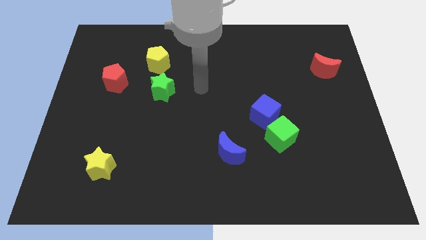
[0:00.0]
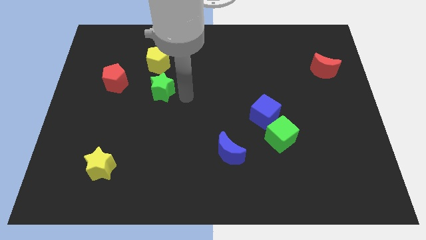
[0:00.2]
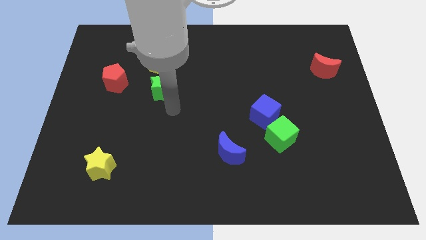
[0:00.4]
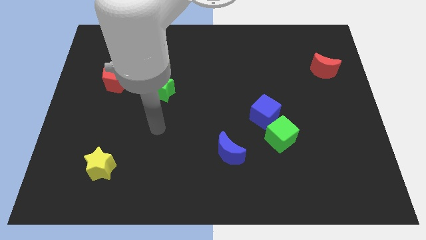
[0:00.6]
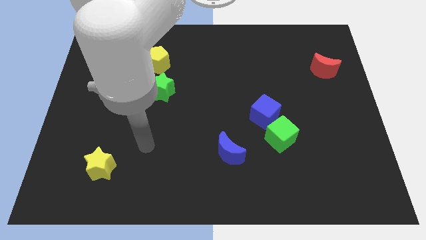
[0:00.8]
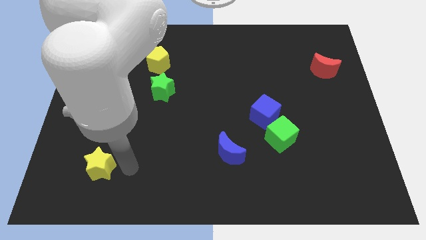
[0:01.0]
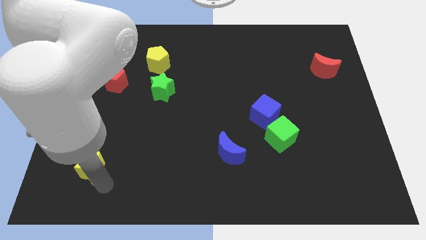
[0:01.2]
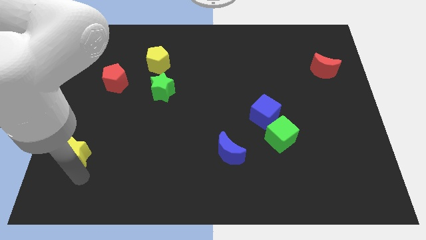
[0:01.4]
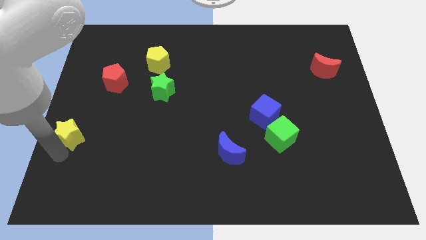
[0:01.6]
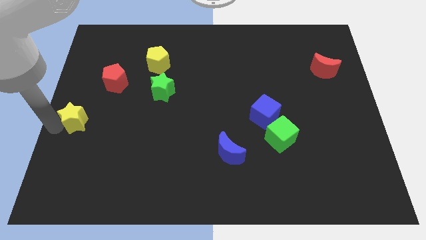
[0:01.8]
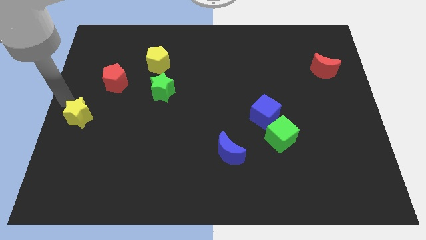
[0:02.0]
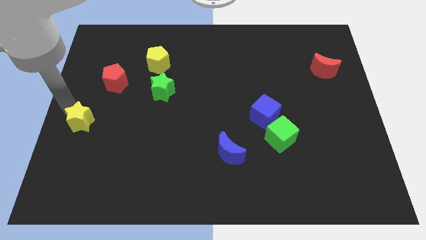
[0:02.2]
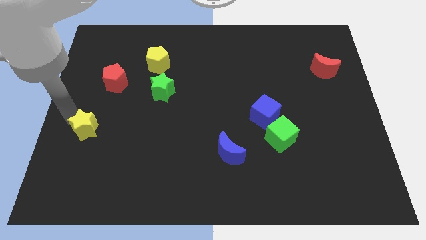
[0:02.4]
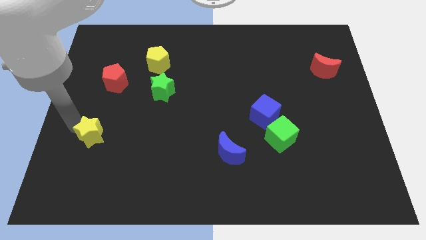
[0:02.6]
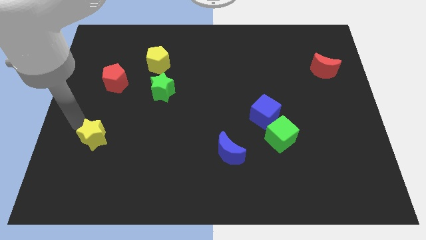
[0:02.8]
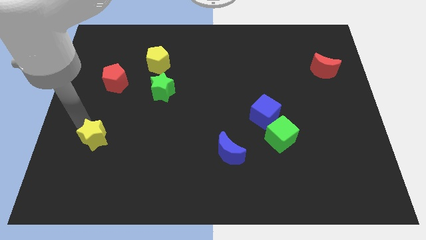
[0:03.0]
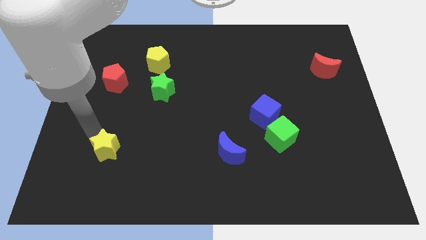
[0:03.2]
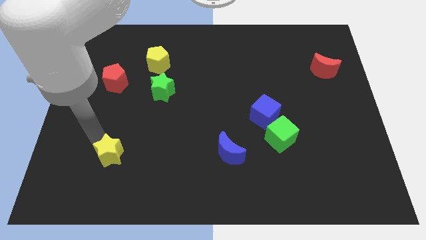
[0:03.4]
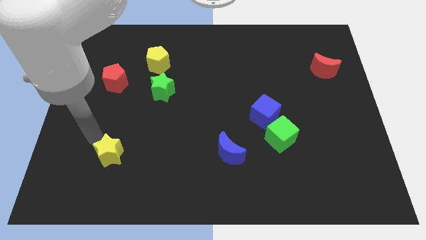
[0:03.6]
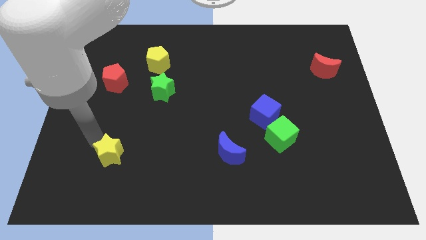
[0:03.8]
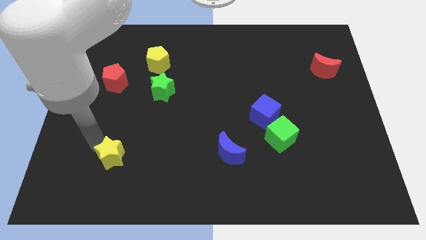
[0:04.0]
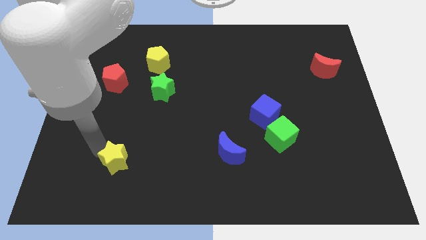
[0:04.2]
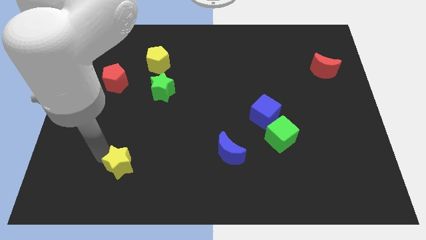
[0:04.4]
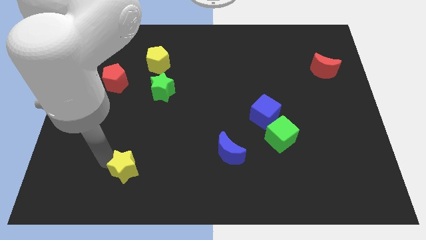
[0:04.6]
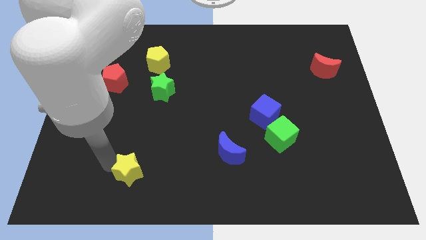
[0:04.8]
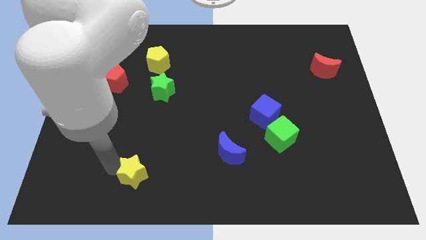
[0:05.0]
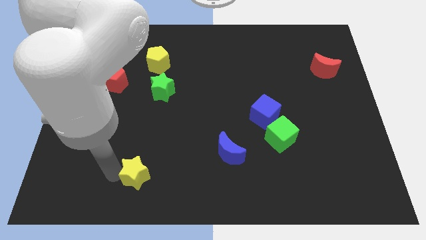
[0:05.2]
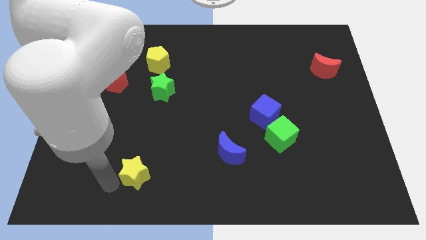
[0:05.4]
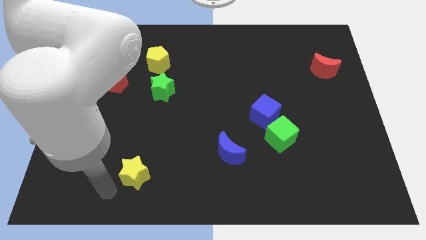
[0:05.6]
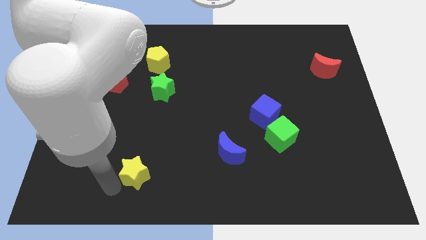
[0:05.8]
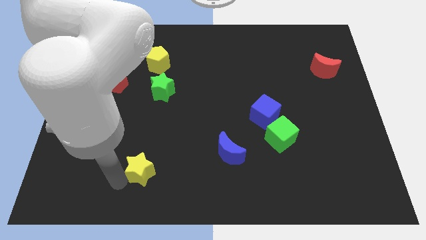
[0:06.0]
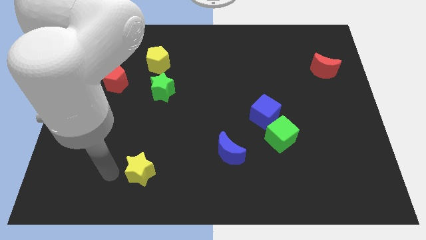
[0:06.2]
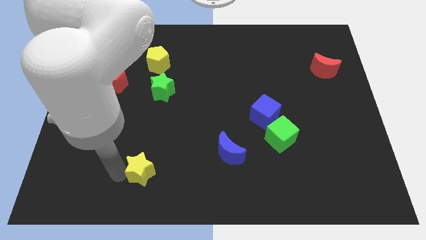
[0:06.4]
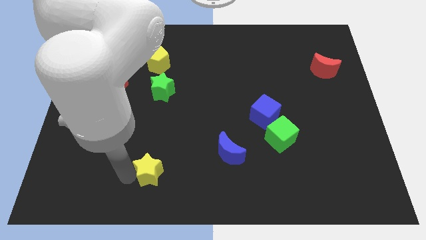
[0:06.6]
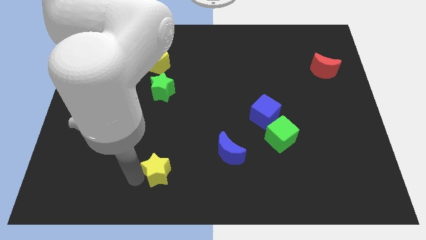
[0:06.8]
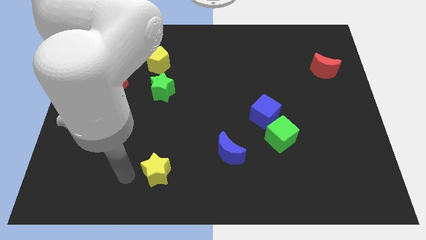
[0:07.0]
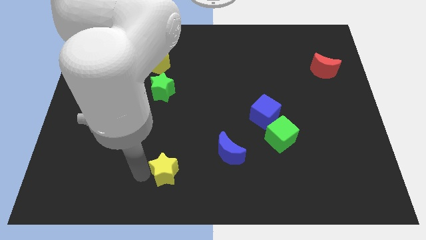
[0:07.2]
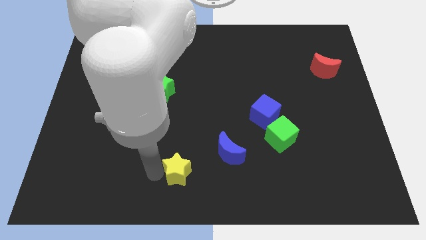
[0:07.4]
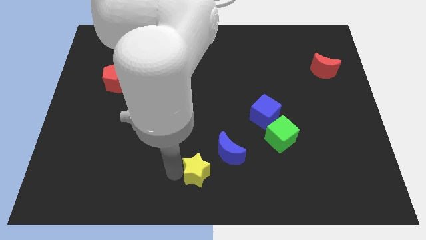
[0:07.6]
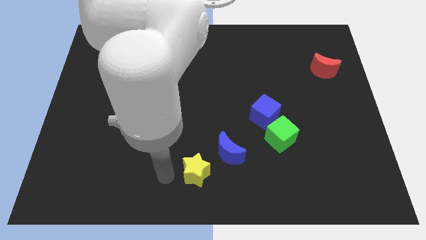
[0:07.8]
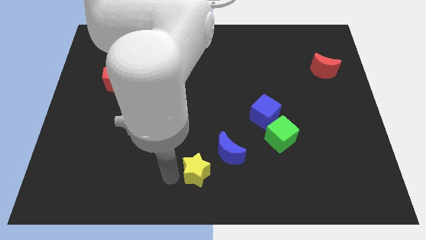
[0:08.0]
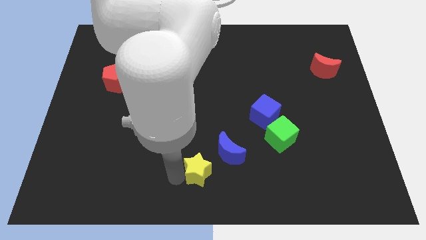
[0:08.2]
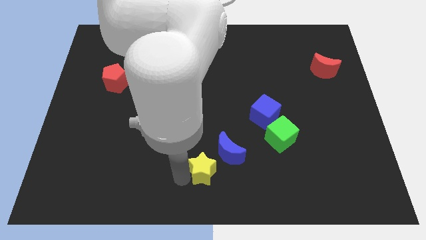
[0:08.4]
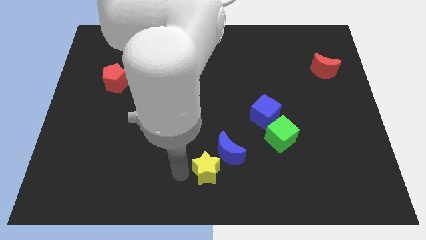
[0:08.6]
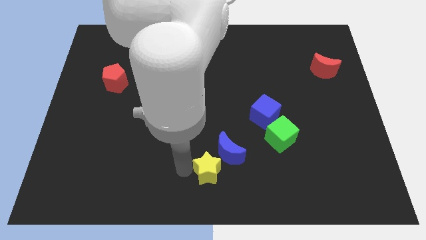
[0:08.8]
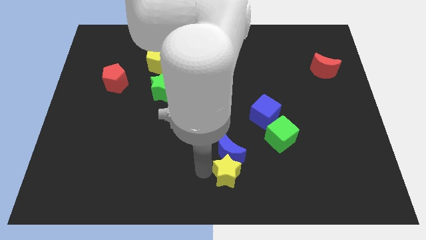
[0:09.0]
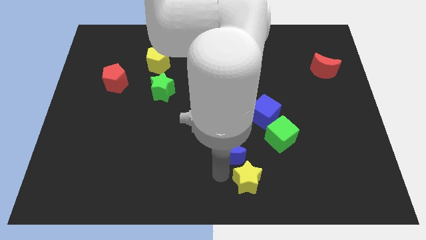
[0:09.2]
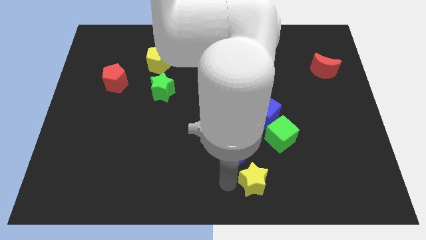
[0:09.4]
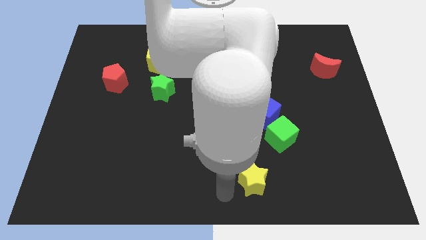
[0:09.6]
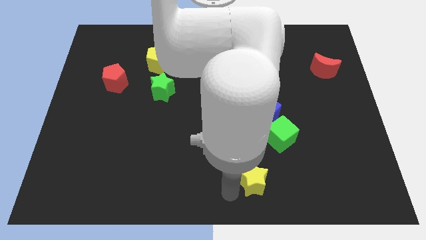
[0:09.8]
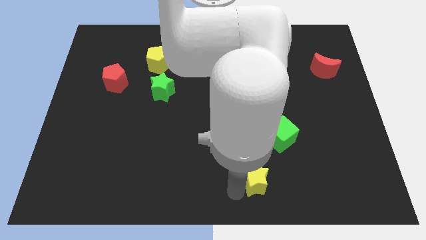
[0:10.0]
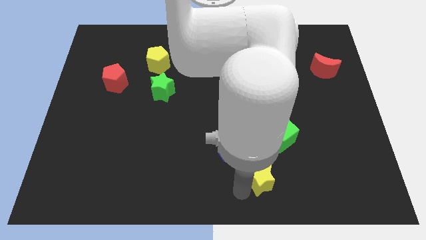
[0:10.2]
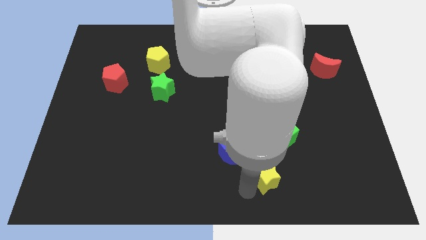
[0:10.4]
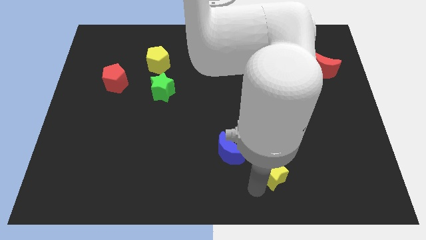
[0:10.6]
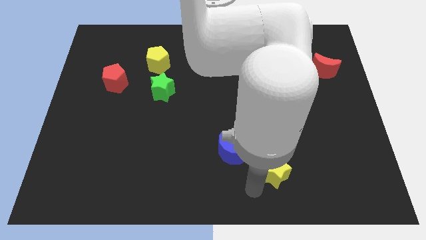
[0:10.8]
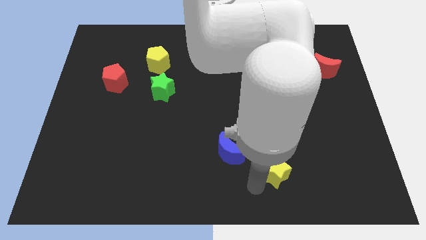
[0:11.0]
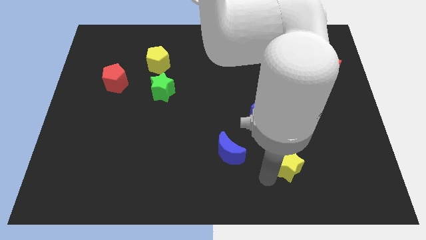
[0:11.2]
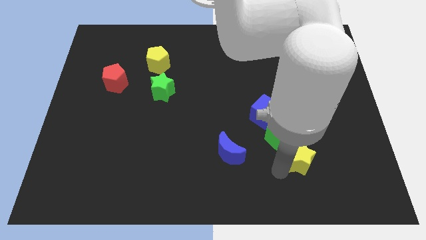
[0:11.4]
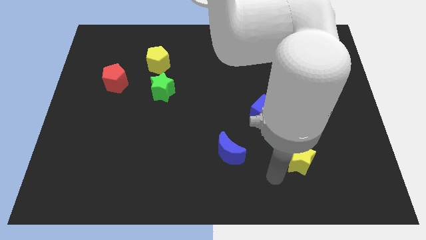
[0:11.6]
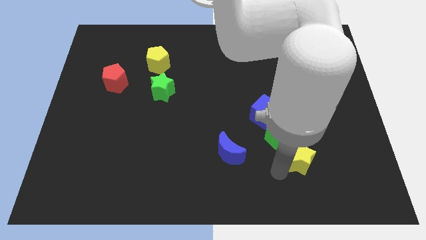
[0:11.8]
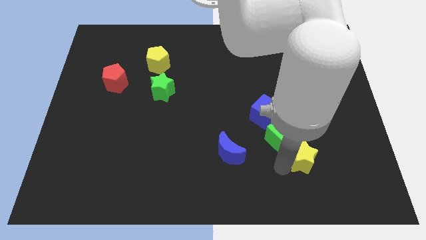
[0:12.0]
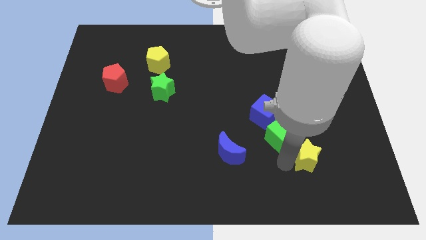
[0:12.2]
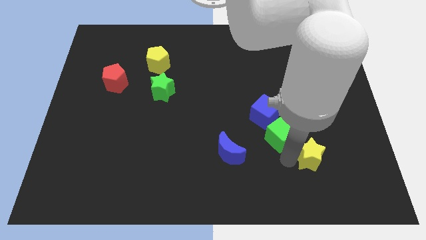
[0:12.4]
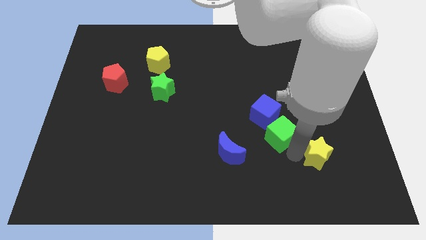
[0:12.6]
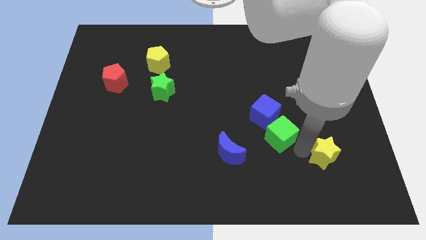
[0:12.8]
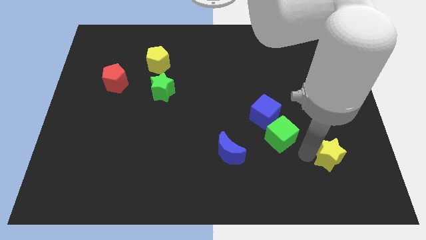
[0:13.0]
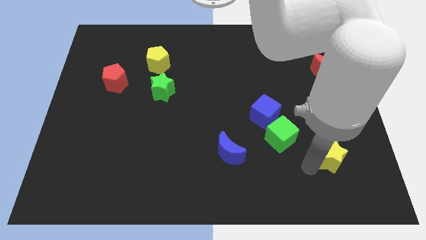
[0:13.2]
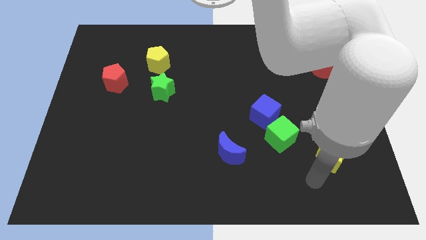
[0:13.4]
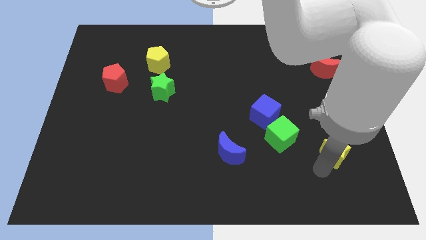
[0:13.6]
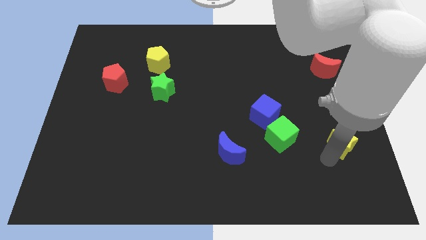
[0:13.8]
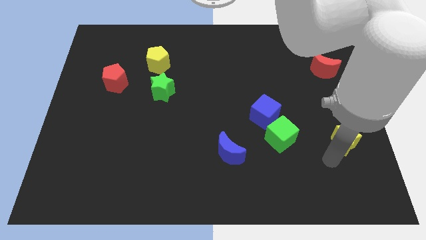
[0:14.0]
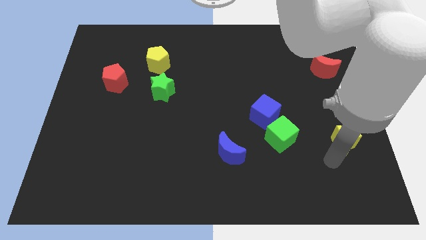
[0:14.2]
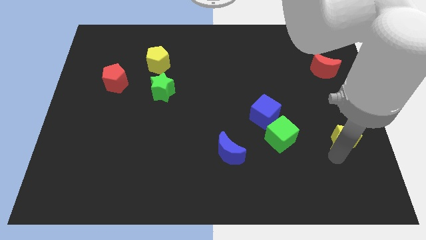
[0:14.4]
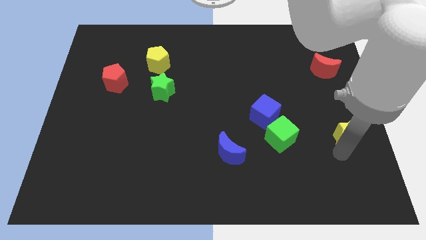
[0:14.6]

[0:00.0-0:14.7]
move the yellow star to the center right
